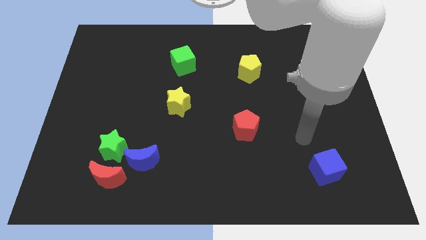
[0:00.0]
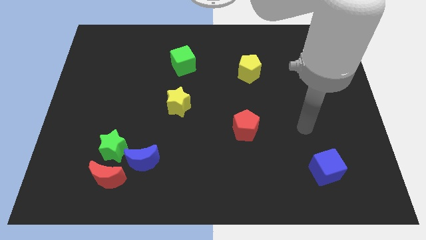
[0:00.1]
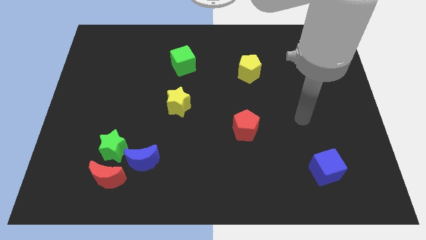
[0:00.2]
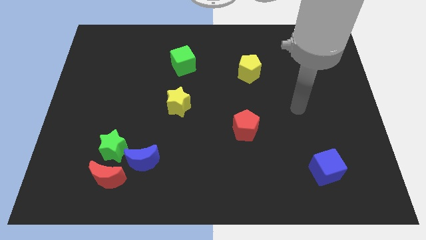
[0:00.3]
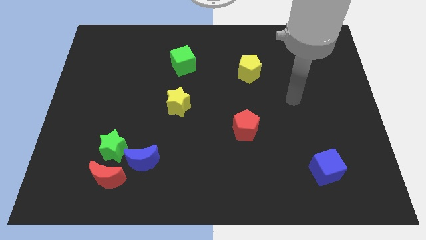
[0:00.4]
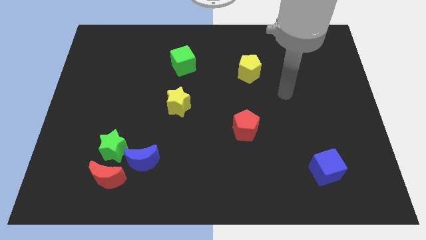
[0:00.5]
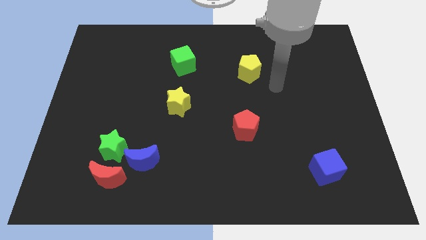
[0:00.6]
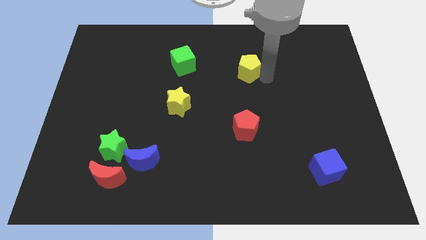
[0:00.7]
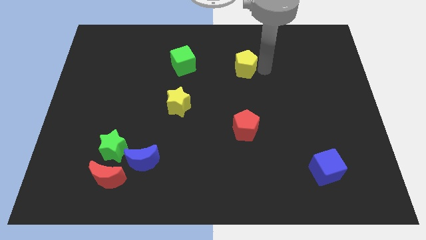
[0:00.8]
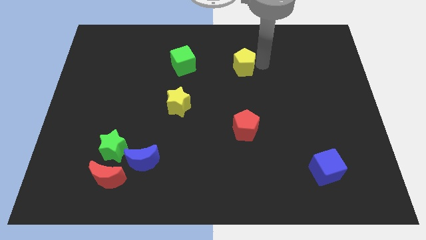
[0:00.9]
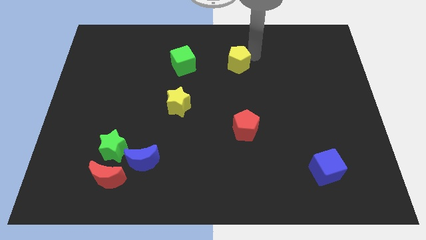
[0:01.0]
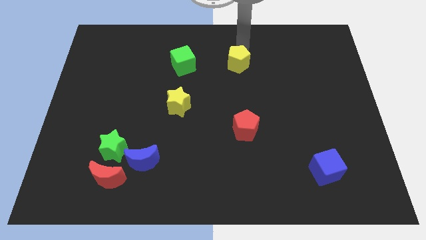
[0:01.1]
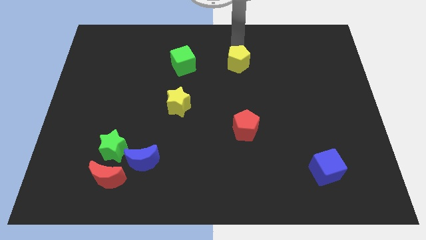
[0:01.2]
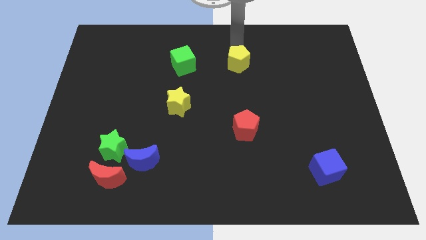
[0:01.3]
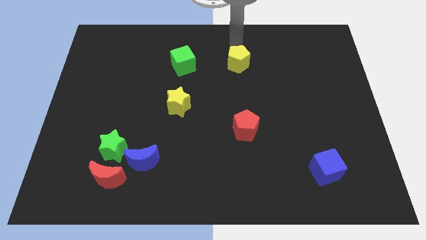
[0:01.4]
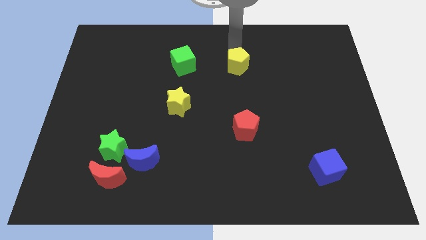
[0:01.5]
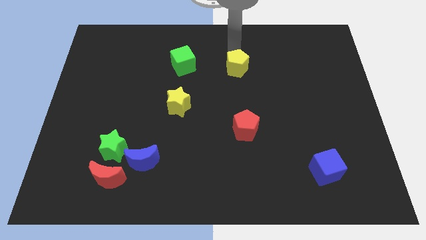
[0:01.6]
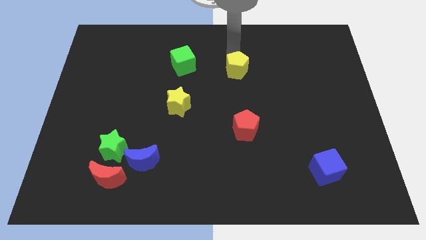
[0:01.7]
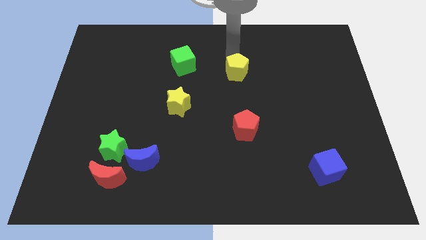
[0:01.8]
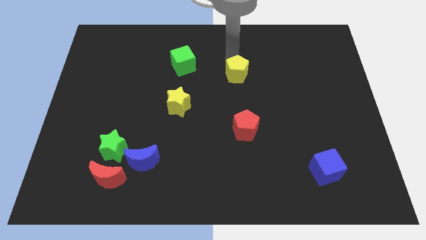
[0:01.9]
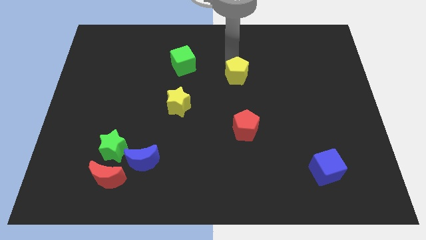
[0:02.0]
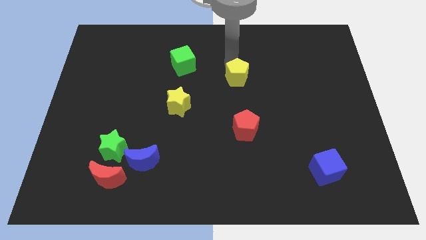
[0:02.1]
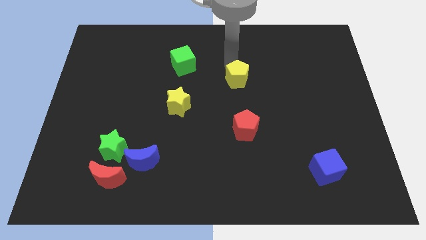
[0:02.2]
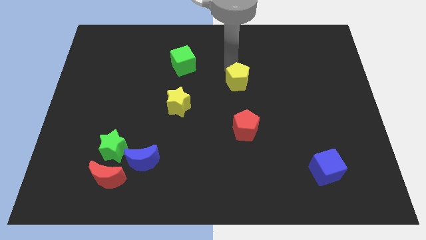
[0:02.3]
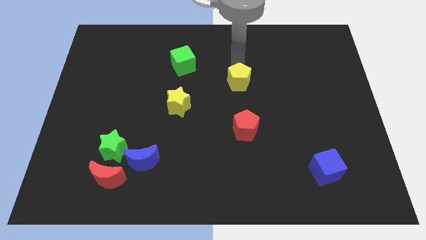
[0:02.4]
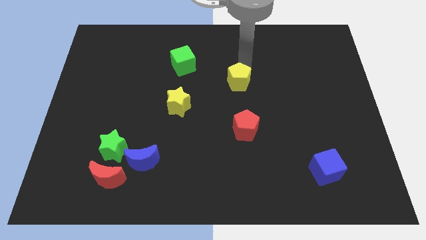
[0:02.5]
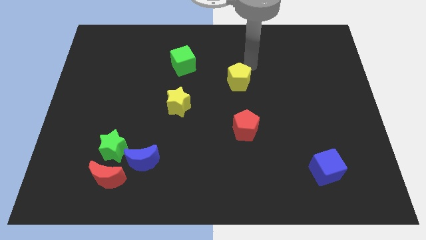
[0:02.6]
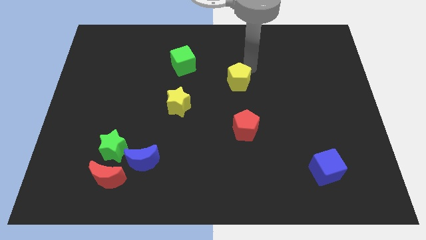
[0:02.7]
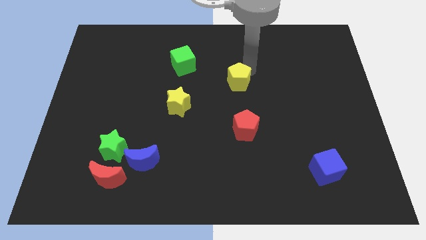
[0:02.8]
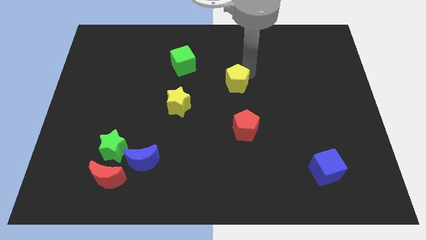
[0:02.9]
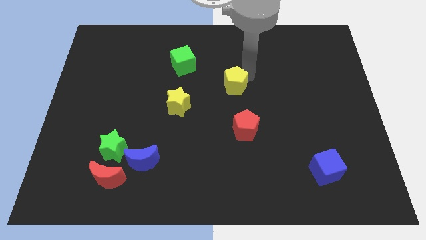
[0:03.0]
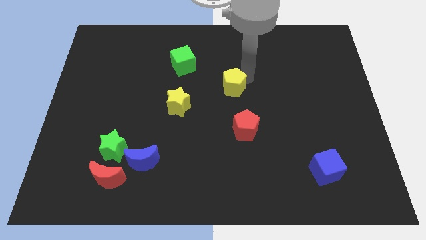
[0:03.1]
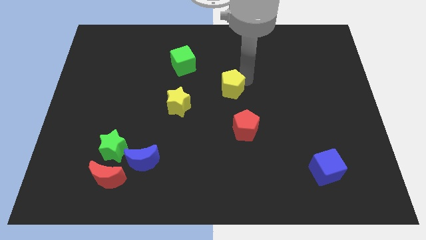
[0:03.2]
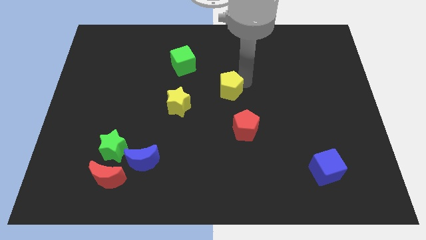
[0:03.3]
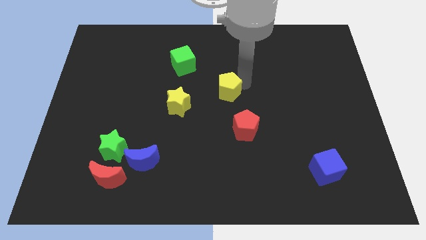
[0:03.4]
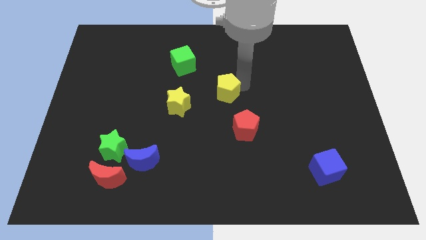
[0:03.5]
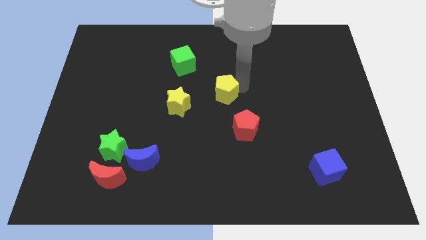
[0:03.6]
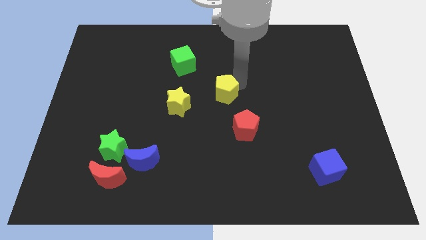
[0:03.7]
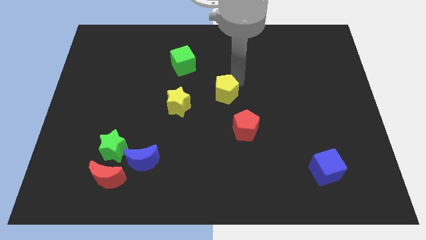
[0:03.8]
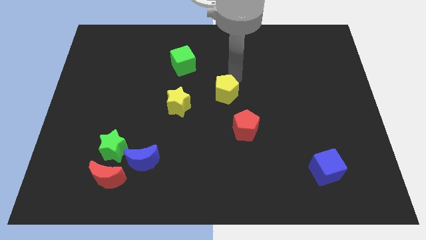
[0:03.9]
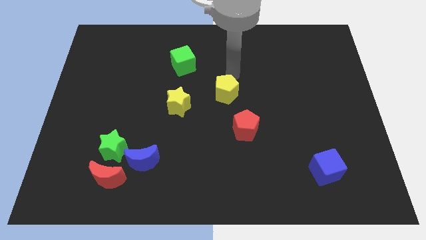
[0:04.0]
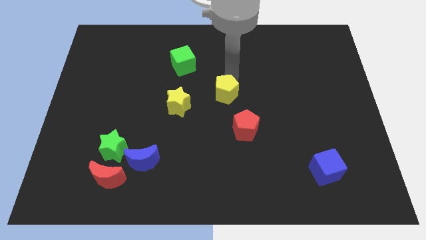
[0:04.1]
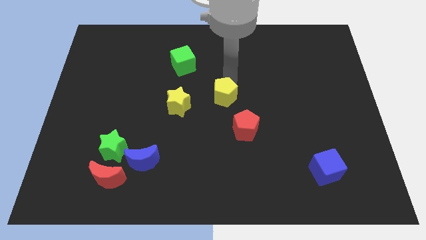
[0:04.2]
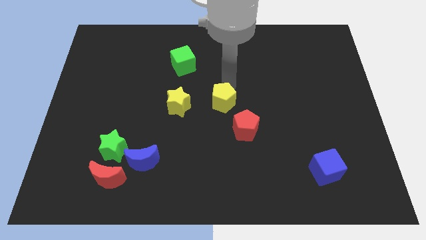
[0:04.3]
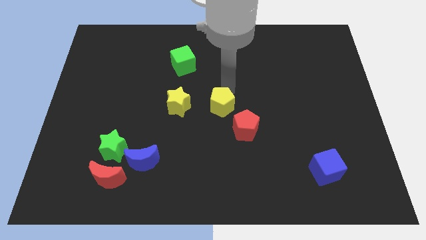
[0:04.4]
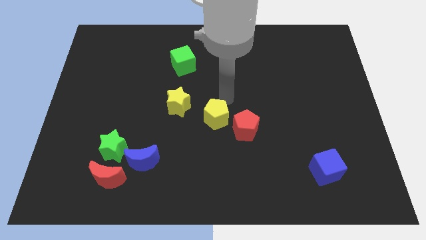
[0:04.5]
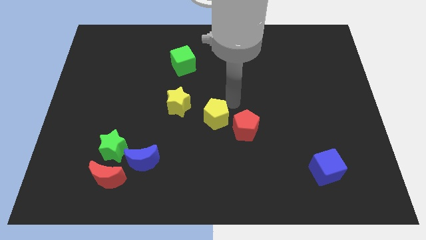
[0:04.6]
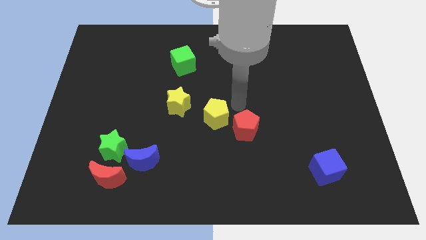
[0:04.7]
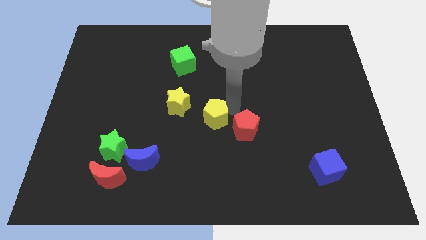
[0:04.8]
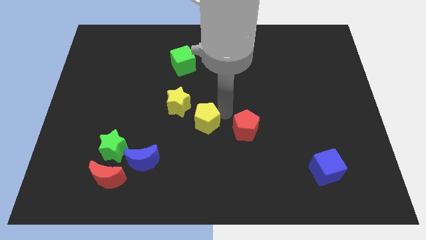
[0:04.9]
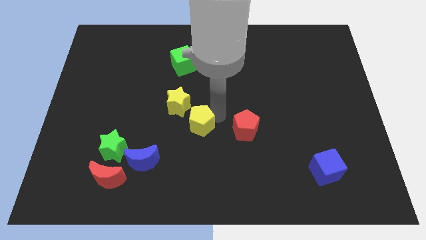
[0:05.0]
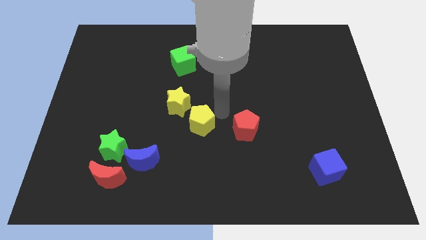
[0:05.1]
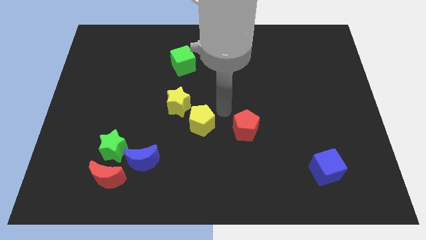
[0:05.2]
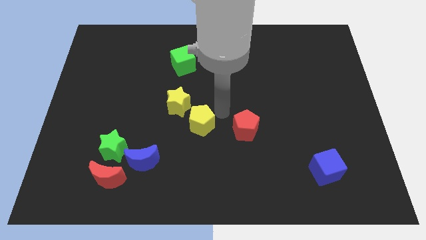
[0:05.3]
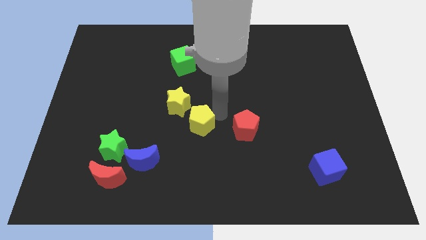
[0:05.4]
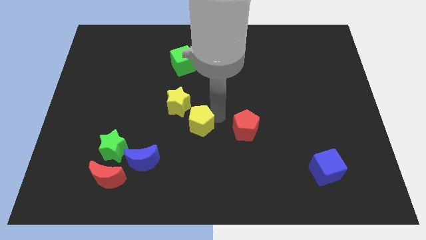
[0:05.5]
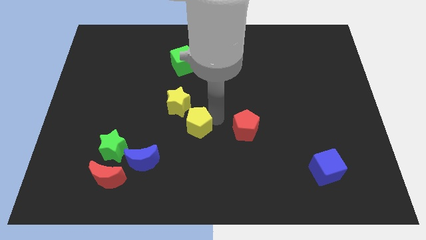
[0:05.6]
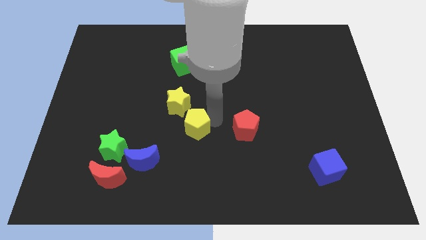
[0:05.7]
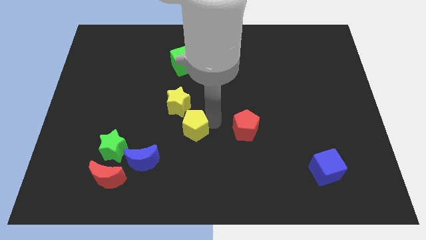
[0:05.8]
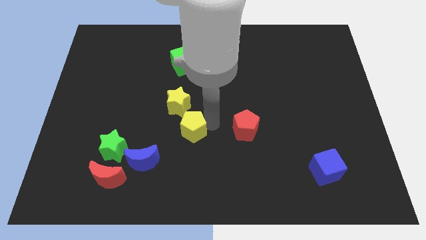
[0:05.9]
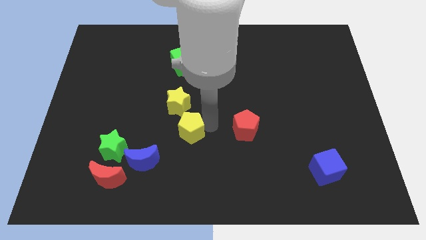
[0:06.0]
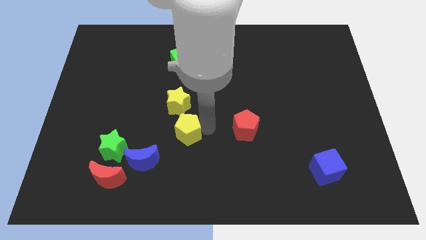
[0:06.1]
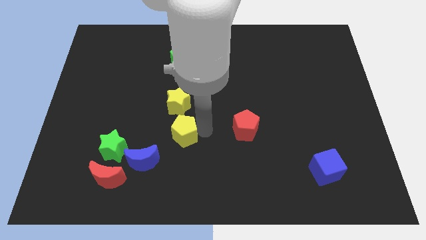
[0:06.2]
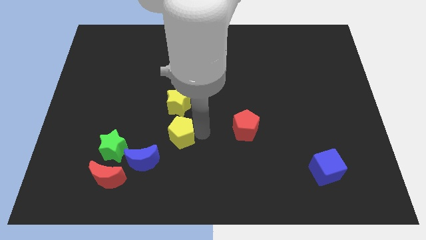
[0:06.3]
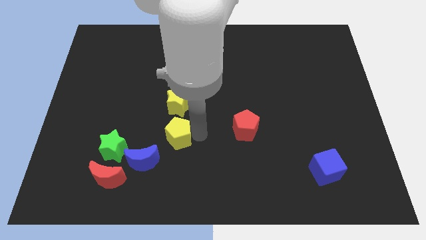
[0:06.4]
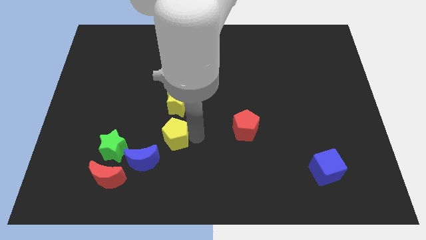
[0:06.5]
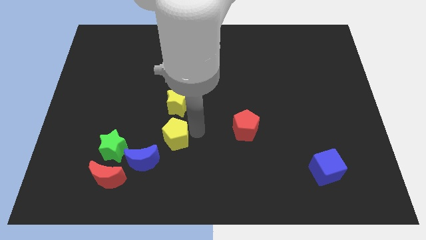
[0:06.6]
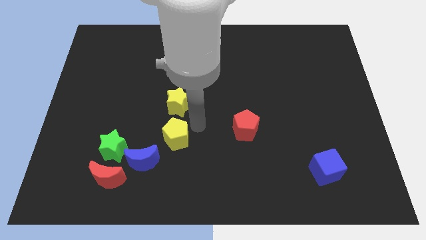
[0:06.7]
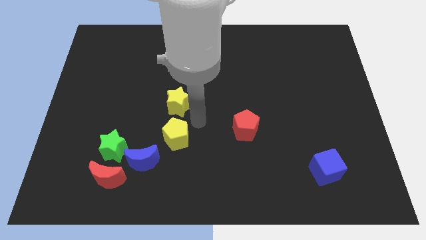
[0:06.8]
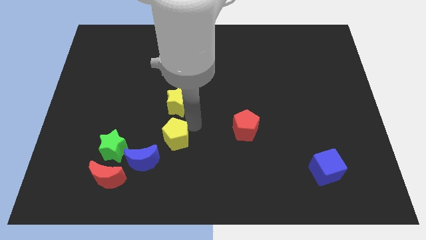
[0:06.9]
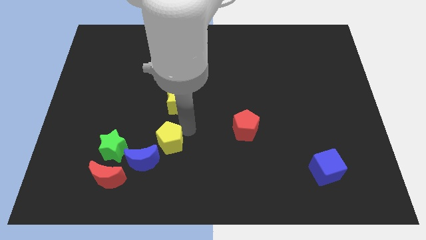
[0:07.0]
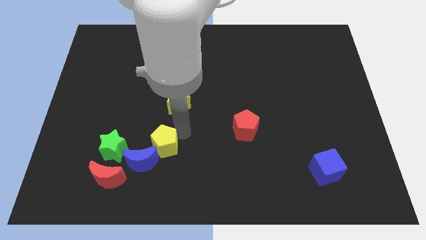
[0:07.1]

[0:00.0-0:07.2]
slide the yellow pentagon towards the blue moon
